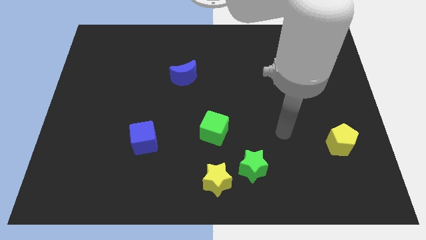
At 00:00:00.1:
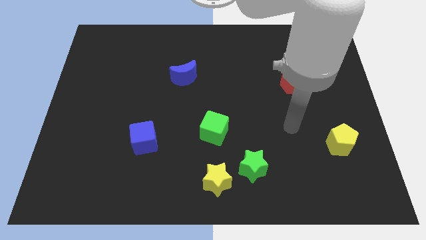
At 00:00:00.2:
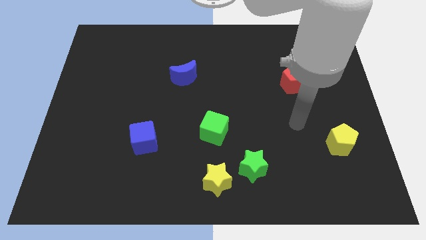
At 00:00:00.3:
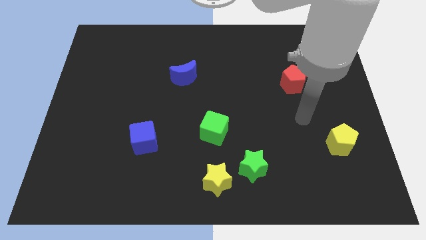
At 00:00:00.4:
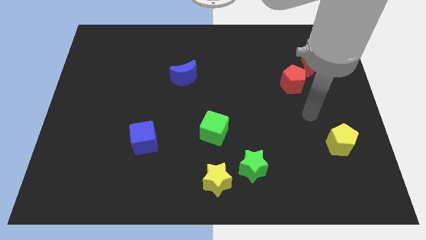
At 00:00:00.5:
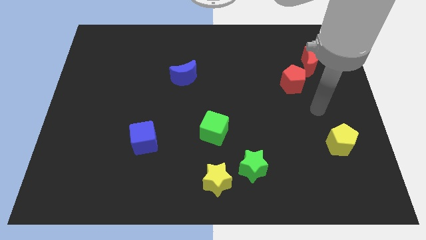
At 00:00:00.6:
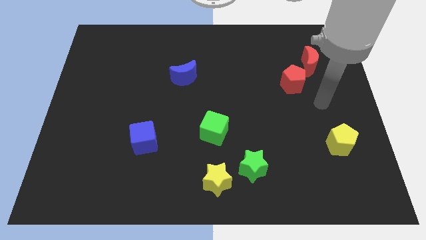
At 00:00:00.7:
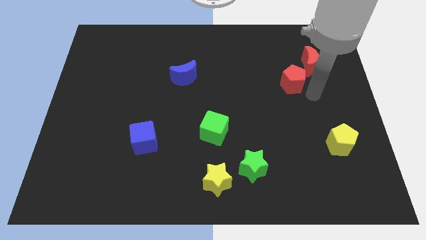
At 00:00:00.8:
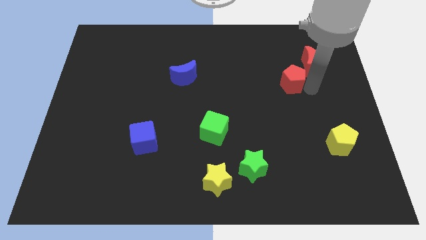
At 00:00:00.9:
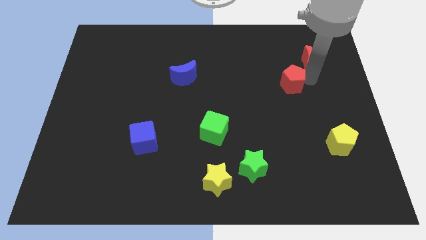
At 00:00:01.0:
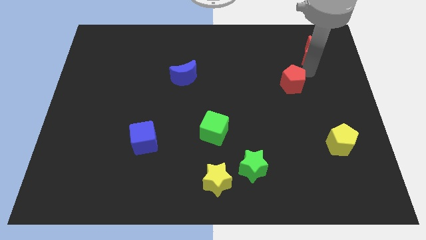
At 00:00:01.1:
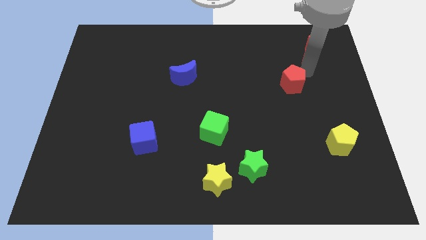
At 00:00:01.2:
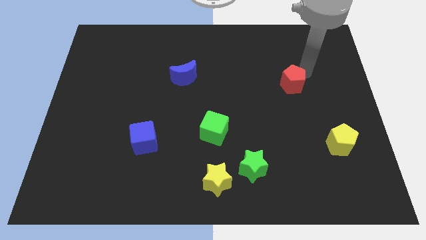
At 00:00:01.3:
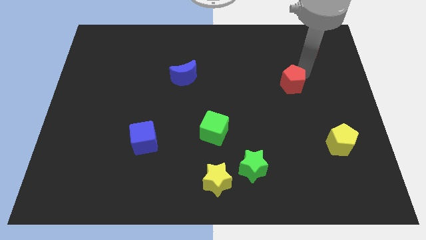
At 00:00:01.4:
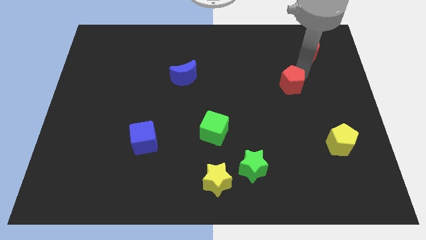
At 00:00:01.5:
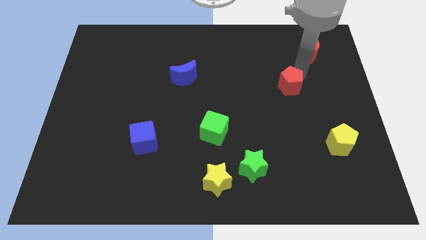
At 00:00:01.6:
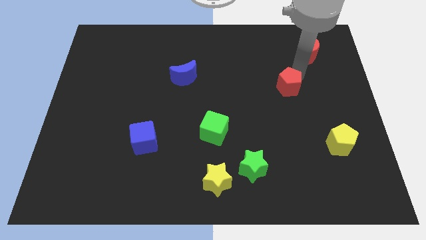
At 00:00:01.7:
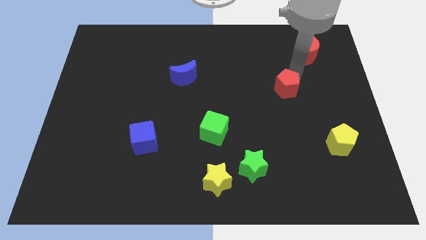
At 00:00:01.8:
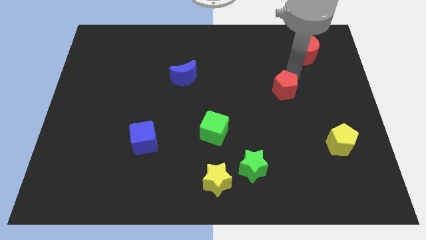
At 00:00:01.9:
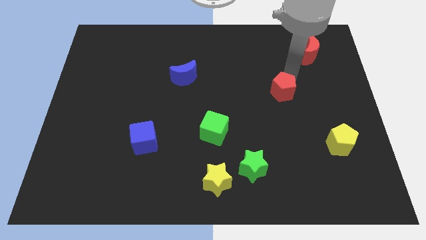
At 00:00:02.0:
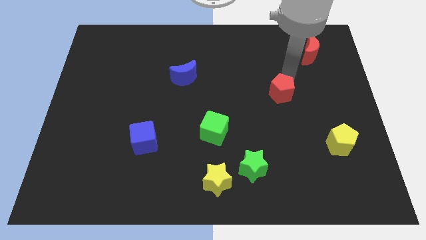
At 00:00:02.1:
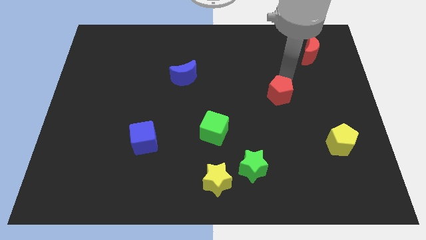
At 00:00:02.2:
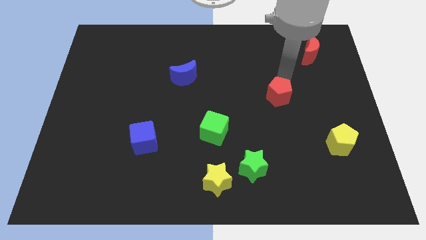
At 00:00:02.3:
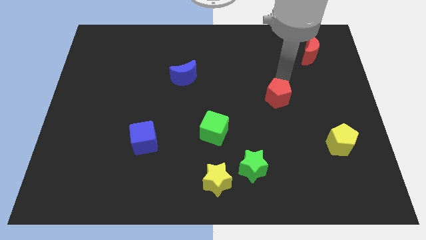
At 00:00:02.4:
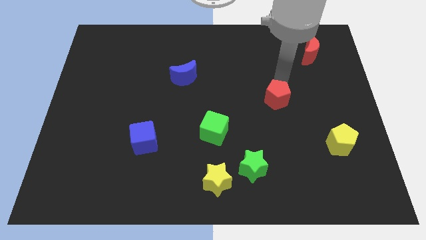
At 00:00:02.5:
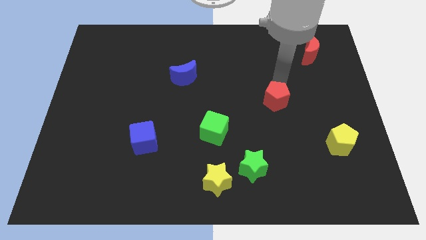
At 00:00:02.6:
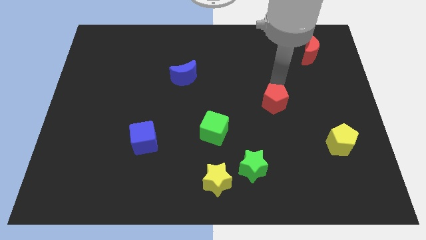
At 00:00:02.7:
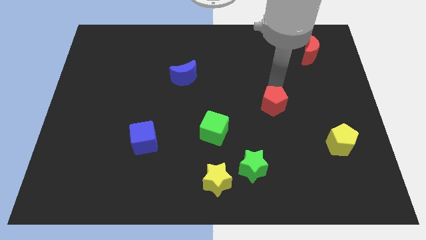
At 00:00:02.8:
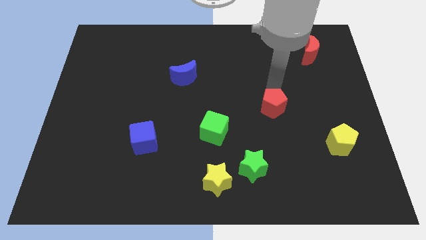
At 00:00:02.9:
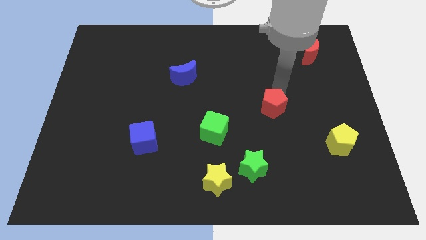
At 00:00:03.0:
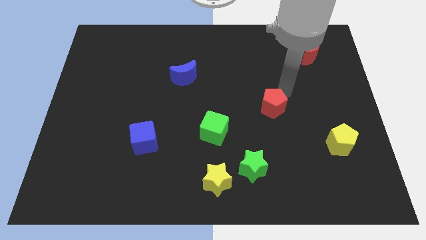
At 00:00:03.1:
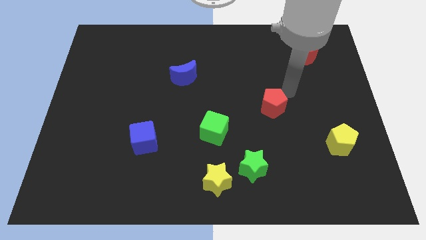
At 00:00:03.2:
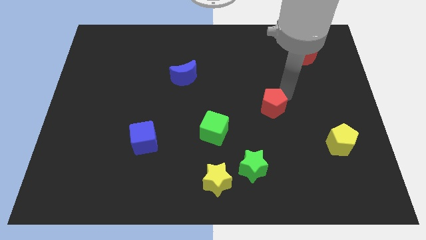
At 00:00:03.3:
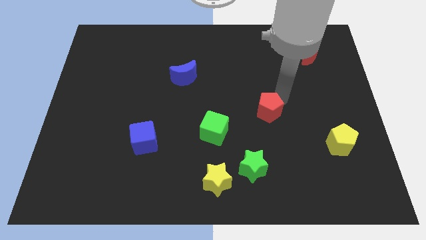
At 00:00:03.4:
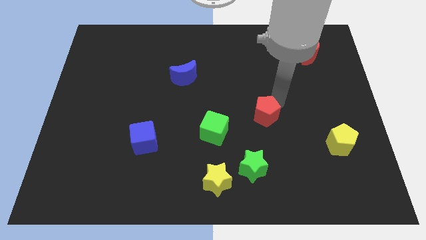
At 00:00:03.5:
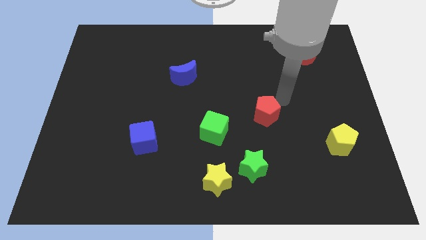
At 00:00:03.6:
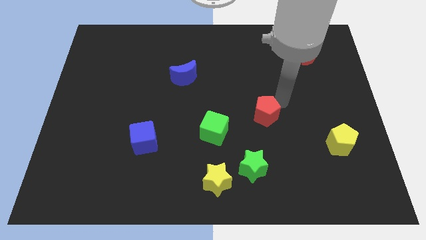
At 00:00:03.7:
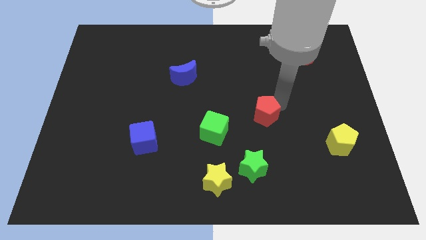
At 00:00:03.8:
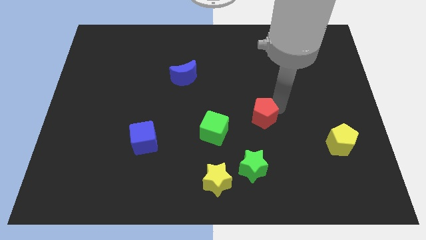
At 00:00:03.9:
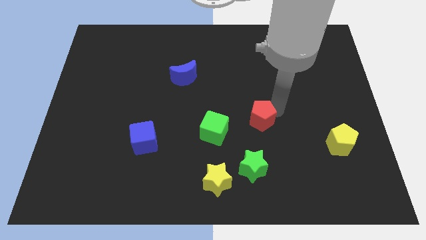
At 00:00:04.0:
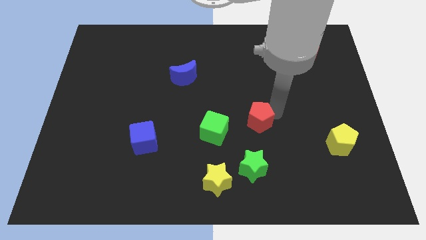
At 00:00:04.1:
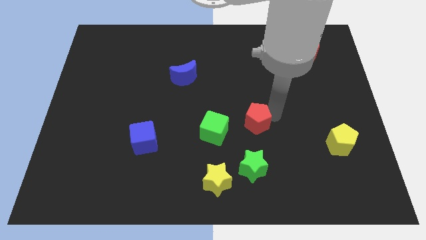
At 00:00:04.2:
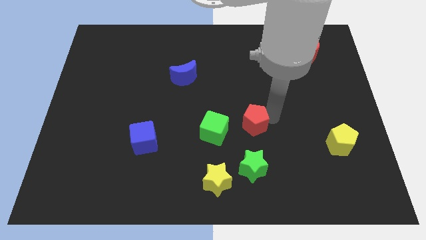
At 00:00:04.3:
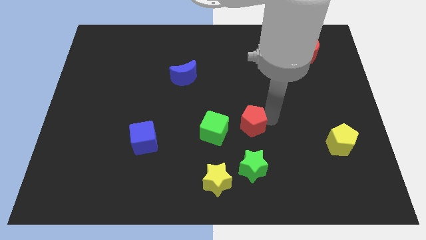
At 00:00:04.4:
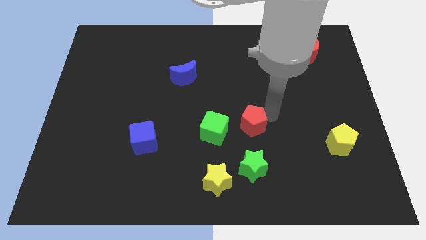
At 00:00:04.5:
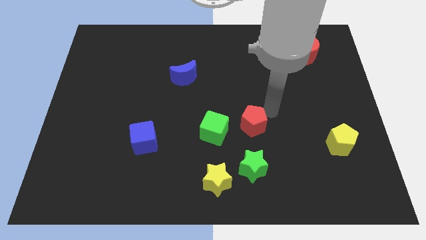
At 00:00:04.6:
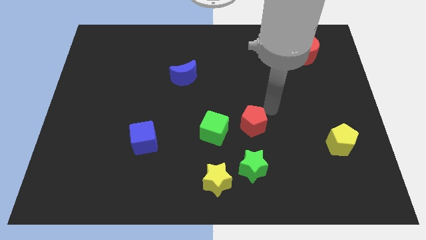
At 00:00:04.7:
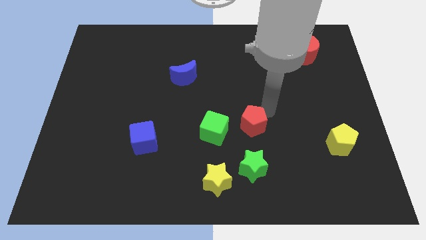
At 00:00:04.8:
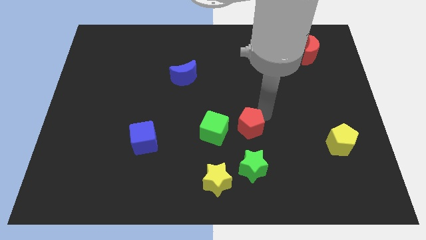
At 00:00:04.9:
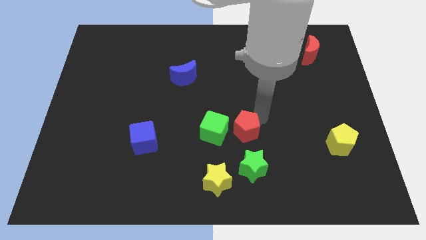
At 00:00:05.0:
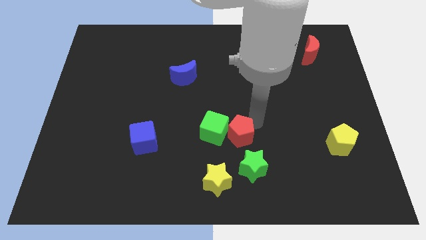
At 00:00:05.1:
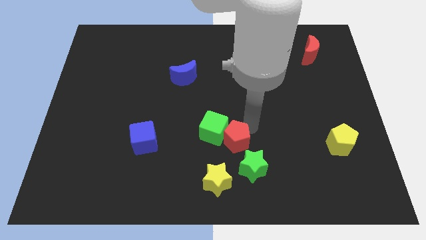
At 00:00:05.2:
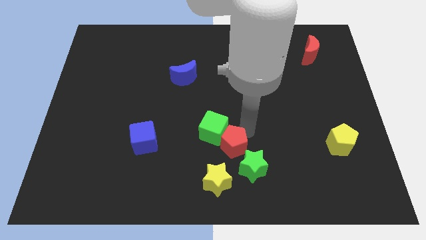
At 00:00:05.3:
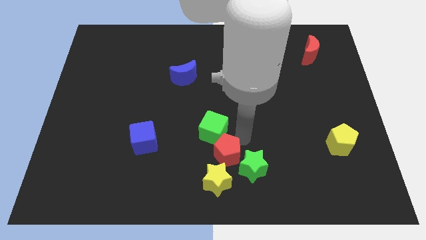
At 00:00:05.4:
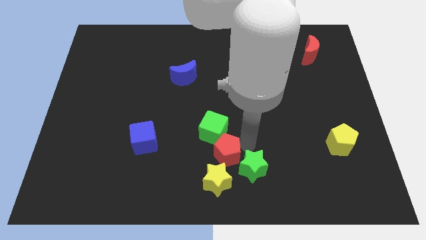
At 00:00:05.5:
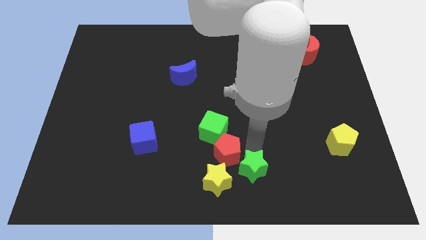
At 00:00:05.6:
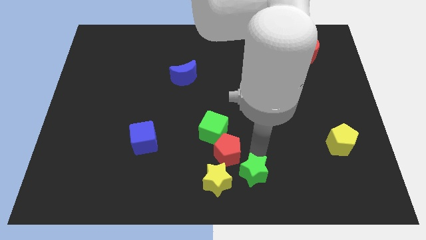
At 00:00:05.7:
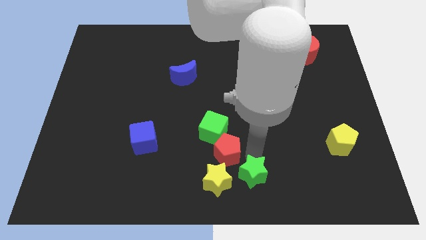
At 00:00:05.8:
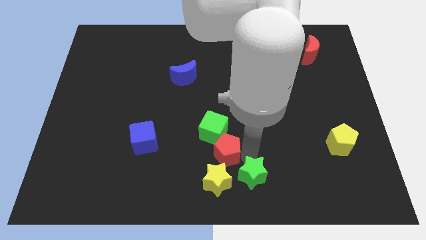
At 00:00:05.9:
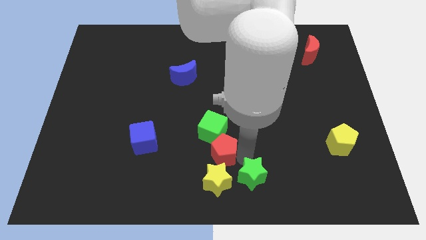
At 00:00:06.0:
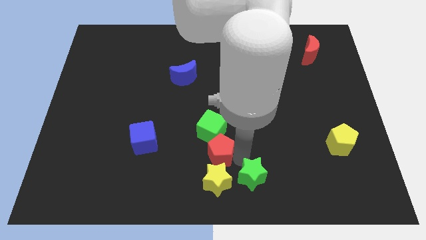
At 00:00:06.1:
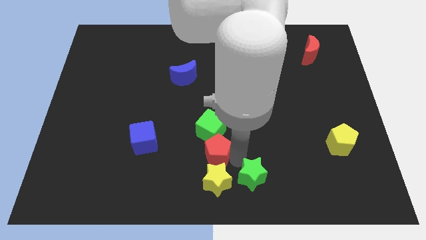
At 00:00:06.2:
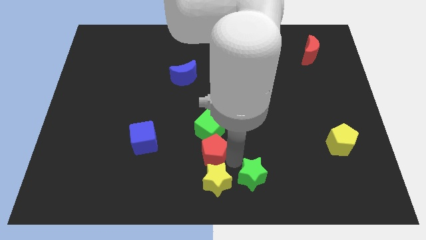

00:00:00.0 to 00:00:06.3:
push the red pentagon diagonally down and to the left of the green cube

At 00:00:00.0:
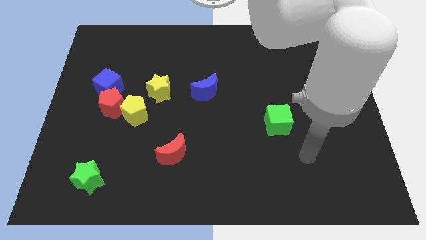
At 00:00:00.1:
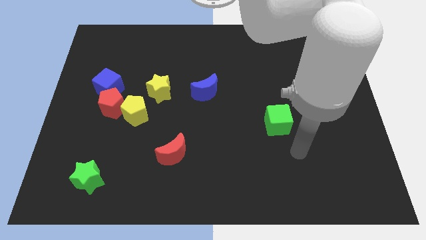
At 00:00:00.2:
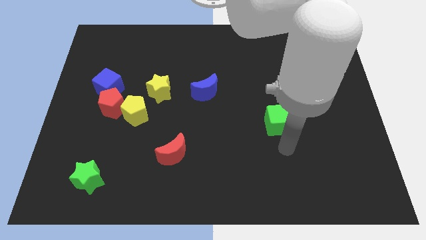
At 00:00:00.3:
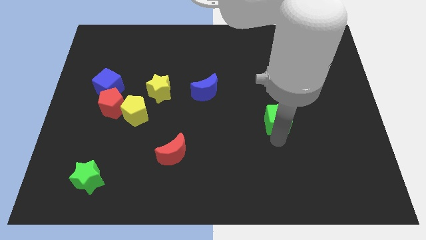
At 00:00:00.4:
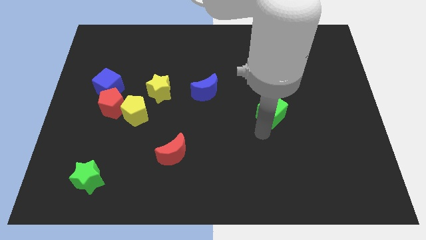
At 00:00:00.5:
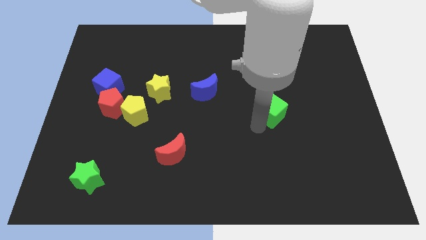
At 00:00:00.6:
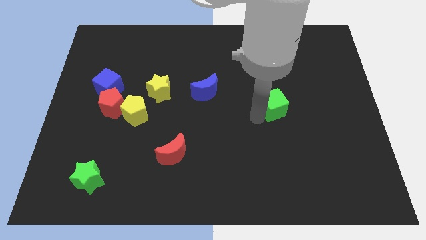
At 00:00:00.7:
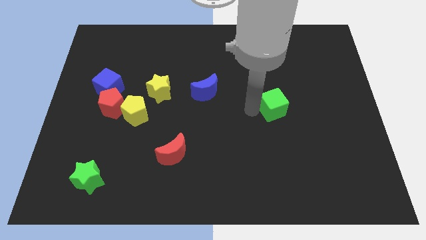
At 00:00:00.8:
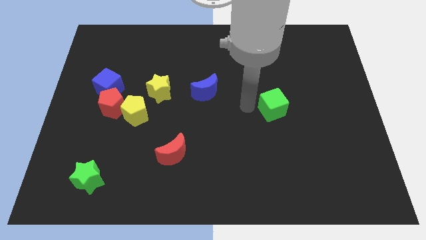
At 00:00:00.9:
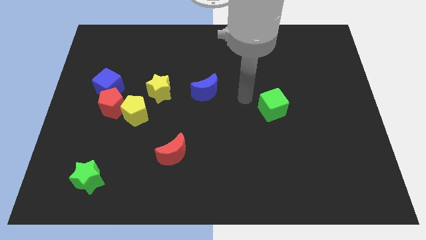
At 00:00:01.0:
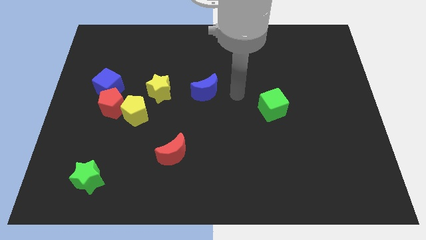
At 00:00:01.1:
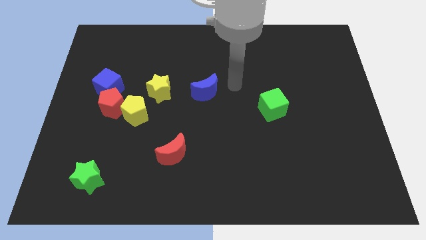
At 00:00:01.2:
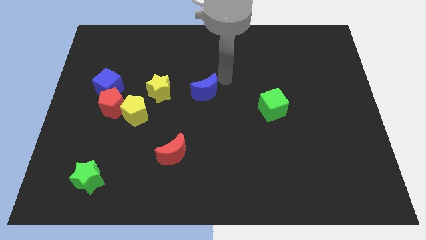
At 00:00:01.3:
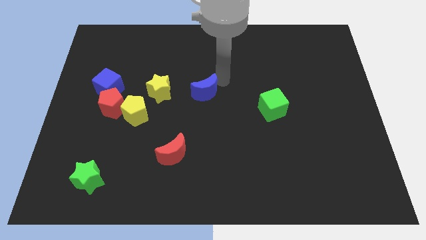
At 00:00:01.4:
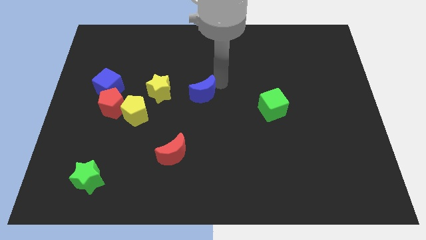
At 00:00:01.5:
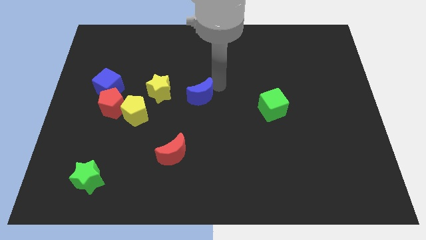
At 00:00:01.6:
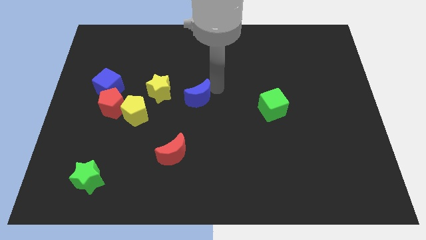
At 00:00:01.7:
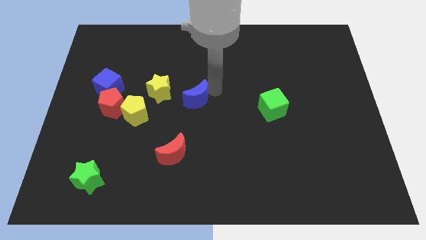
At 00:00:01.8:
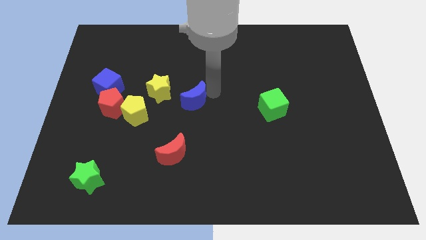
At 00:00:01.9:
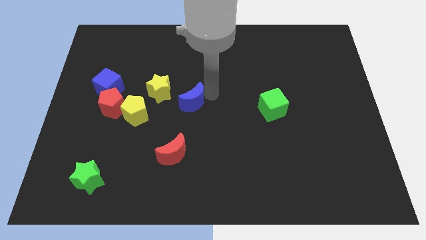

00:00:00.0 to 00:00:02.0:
slide the blue moon to the top of the red moon
